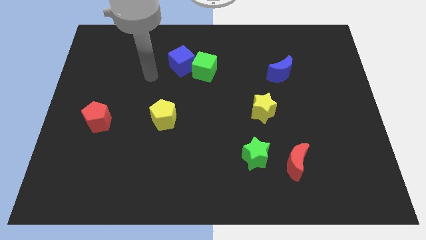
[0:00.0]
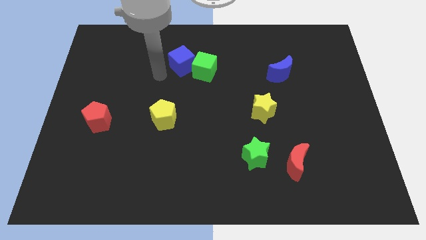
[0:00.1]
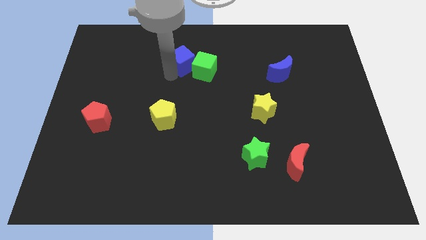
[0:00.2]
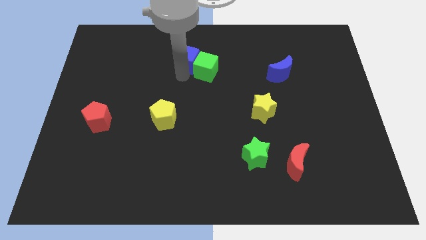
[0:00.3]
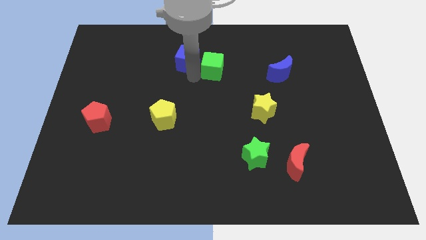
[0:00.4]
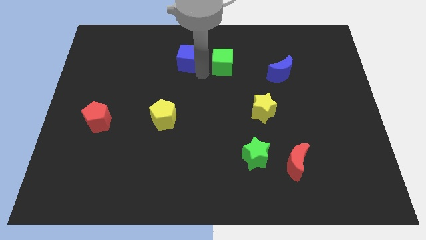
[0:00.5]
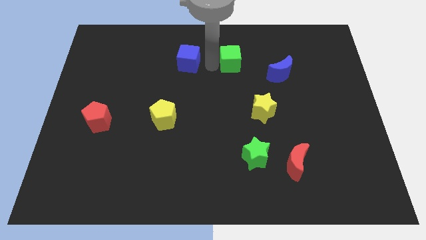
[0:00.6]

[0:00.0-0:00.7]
move the blue cube away from the green cube

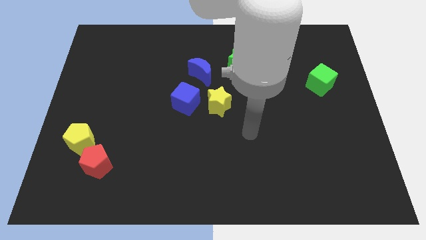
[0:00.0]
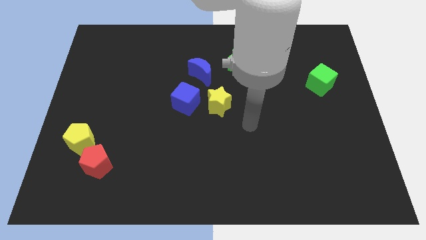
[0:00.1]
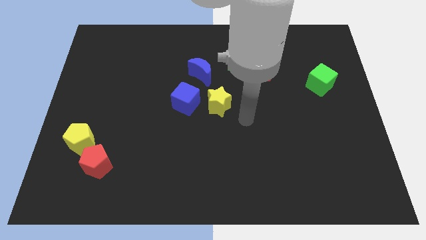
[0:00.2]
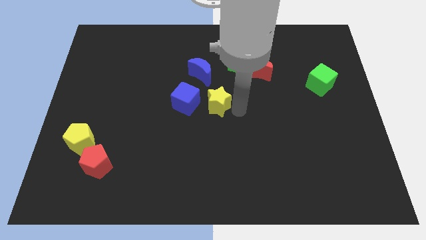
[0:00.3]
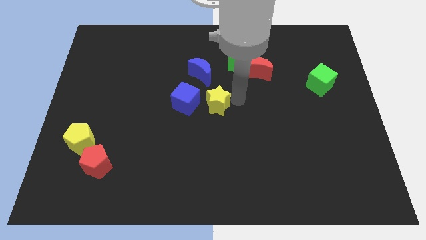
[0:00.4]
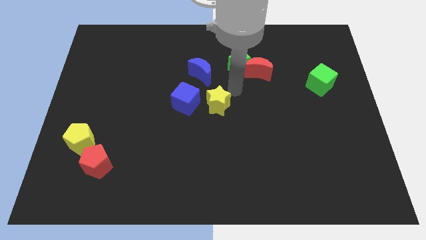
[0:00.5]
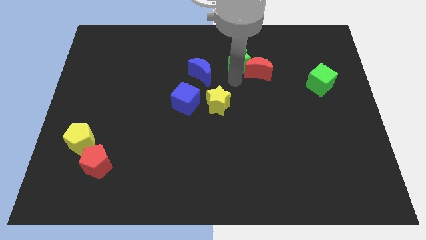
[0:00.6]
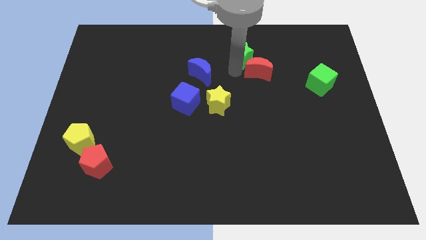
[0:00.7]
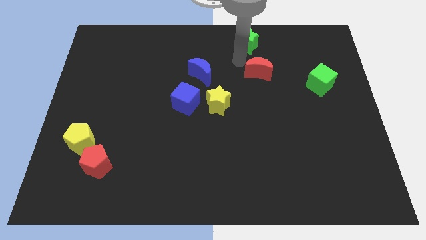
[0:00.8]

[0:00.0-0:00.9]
pull the red moon apart from the green star

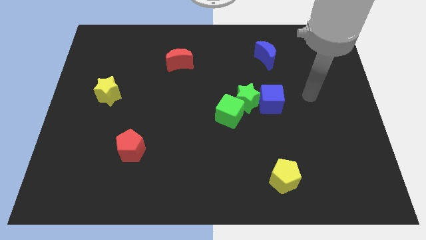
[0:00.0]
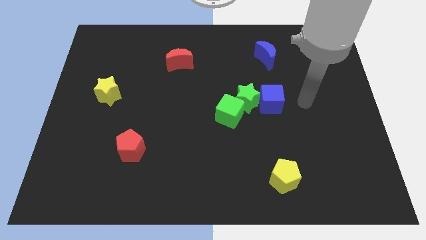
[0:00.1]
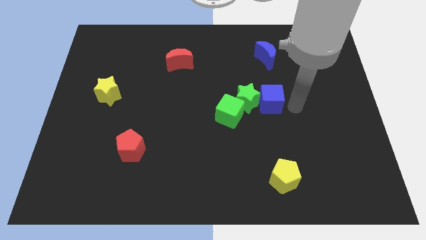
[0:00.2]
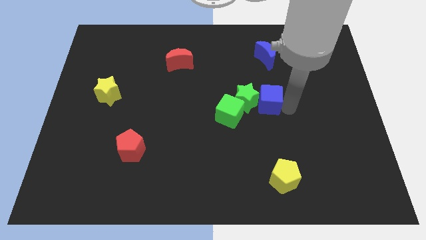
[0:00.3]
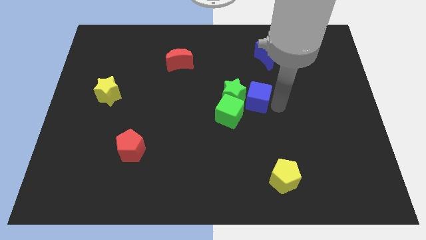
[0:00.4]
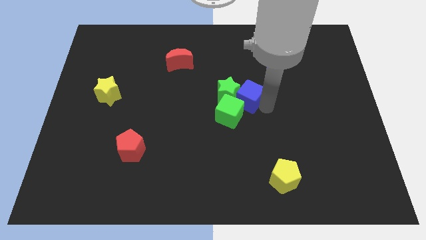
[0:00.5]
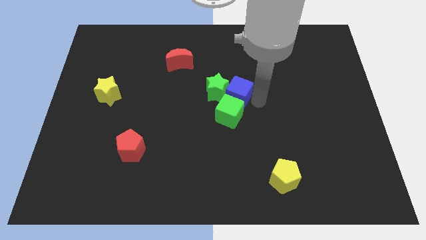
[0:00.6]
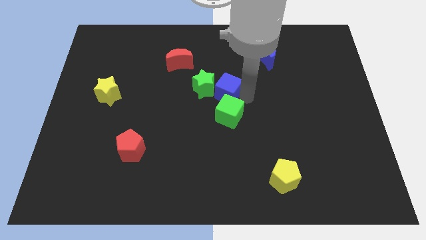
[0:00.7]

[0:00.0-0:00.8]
pull the green cube apart from the green star

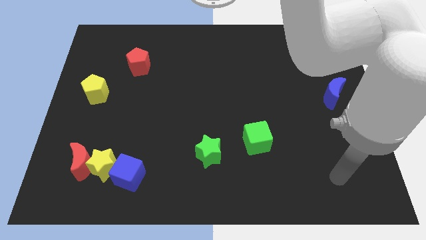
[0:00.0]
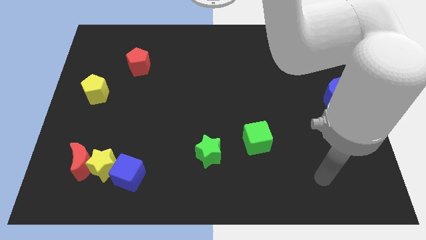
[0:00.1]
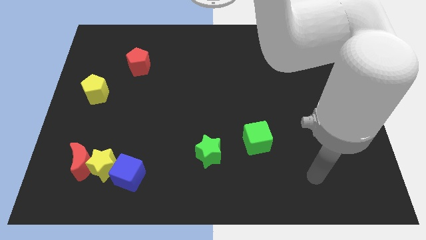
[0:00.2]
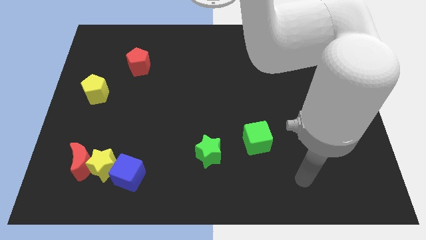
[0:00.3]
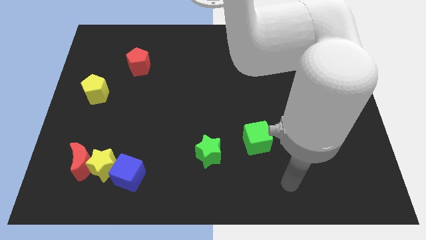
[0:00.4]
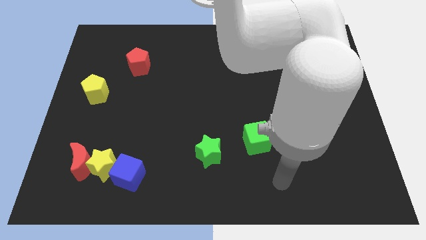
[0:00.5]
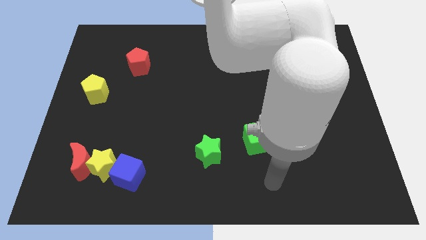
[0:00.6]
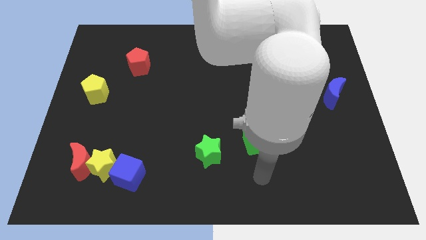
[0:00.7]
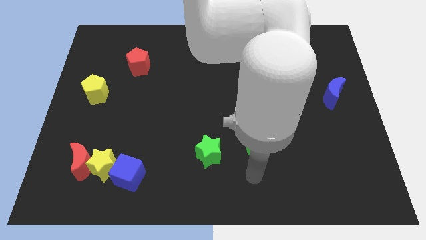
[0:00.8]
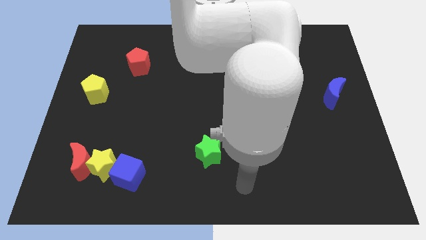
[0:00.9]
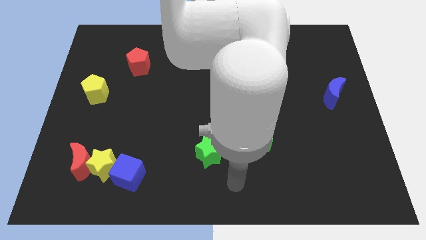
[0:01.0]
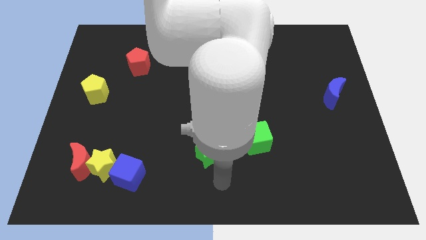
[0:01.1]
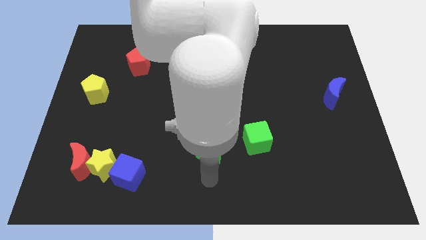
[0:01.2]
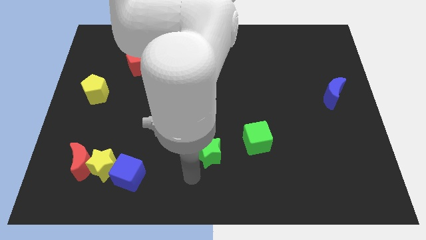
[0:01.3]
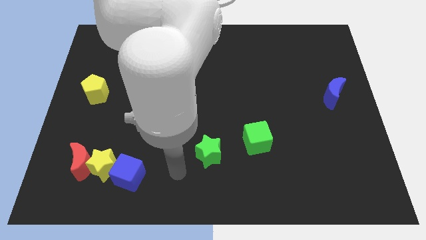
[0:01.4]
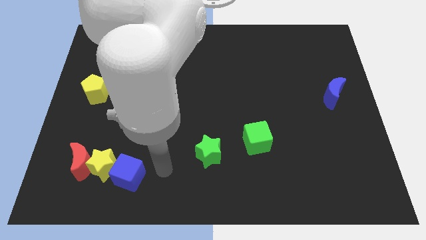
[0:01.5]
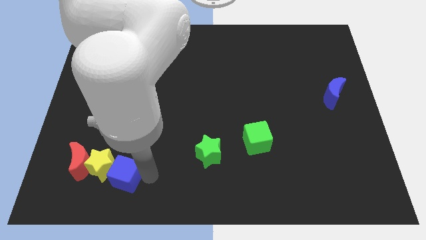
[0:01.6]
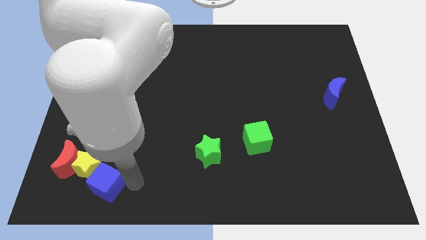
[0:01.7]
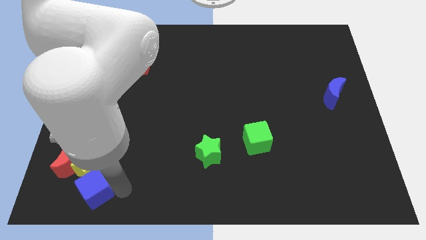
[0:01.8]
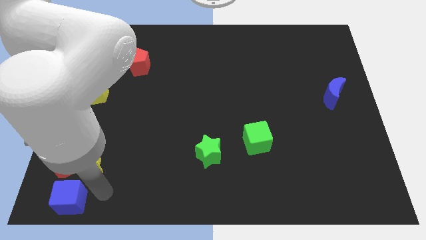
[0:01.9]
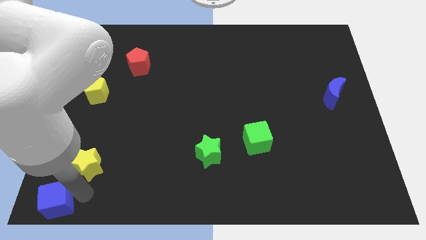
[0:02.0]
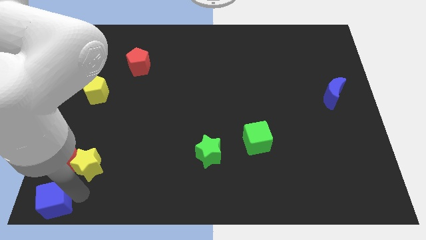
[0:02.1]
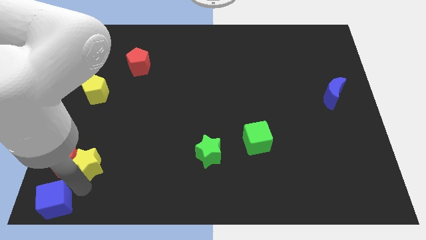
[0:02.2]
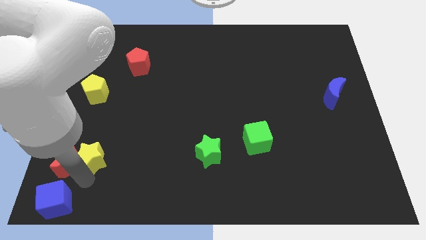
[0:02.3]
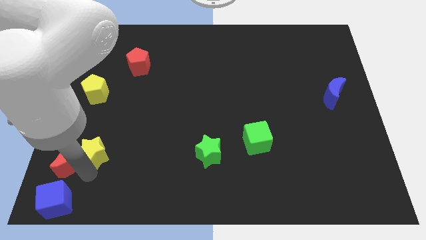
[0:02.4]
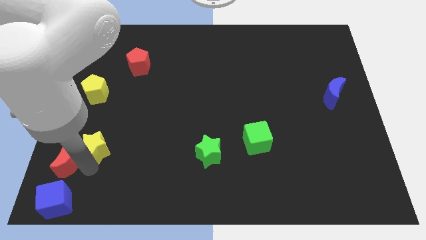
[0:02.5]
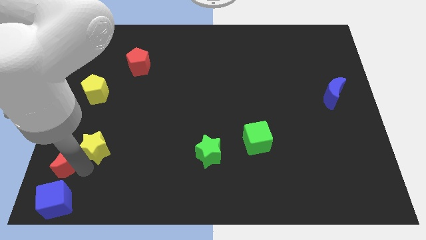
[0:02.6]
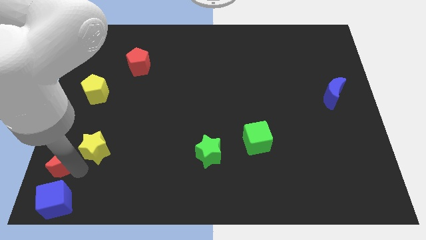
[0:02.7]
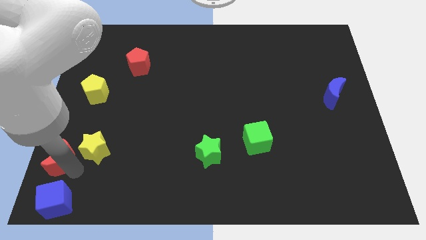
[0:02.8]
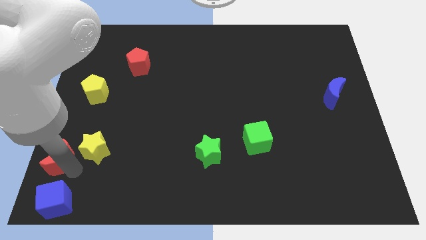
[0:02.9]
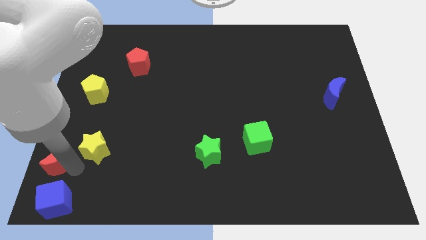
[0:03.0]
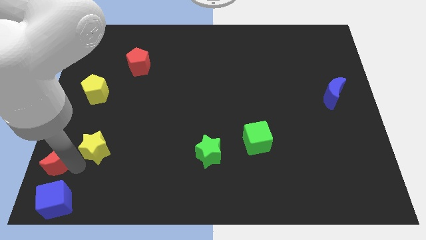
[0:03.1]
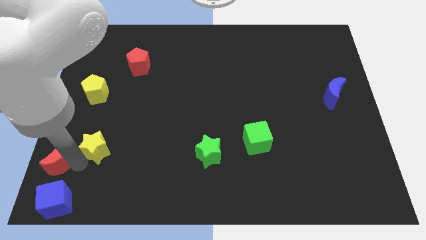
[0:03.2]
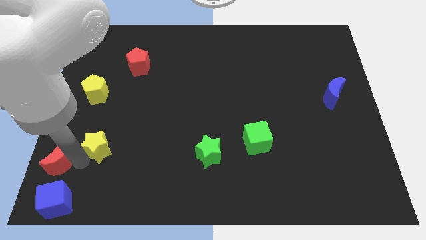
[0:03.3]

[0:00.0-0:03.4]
separate the yellow star from the red moon and blue cube

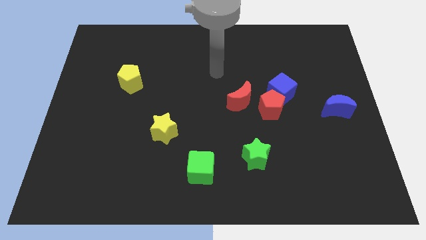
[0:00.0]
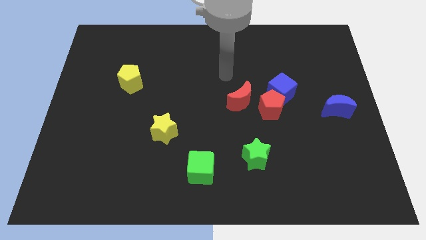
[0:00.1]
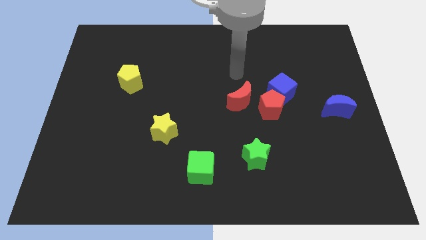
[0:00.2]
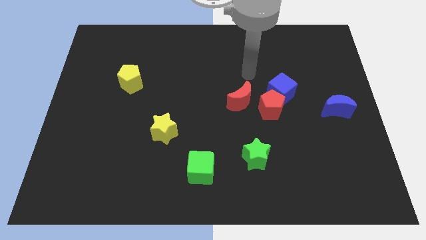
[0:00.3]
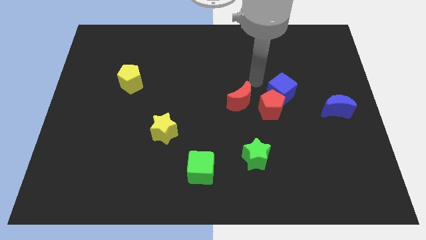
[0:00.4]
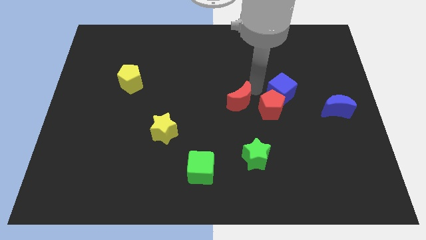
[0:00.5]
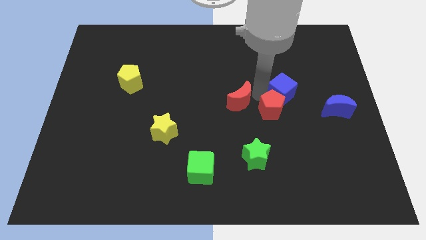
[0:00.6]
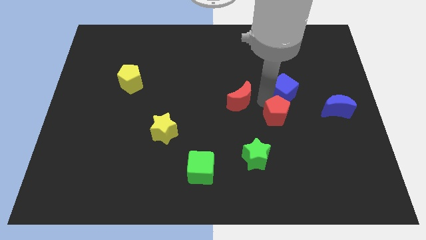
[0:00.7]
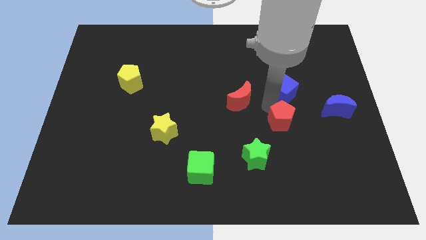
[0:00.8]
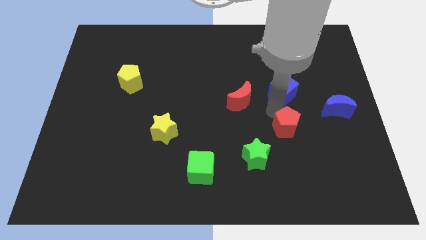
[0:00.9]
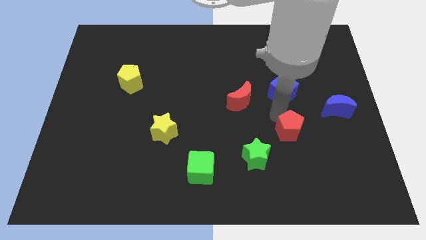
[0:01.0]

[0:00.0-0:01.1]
separate the red pentagon from the blue cube and red moon

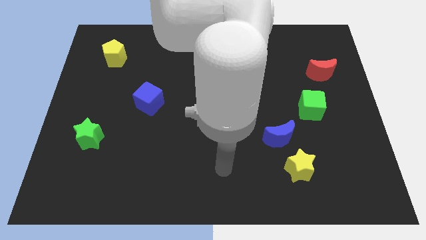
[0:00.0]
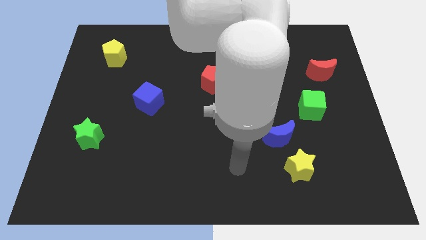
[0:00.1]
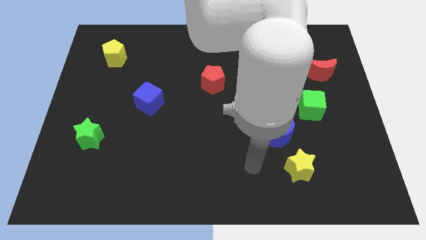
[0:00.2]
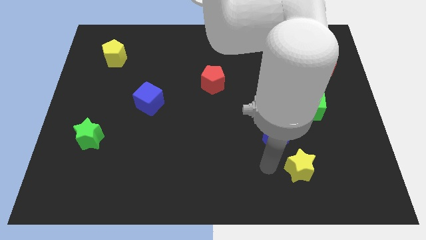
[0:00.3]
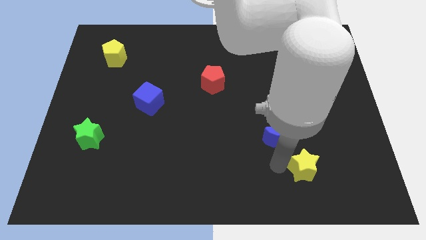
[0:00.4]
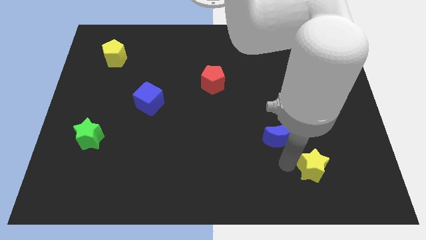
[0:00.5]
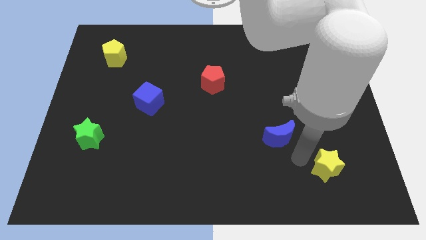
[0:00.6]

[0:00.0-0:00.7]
pull the blue moon apart from the yellow star

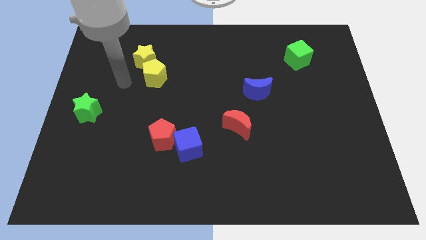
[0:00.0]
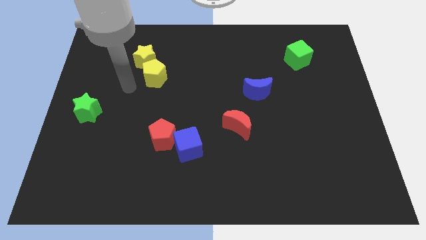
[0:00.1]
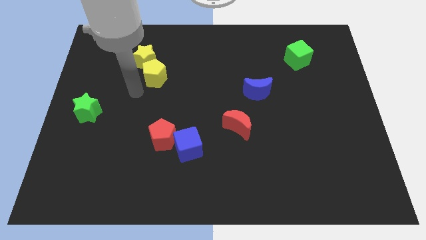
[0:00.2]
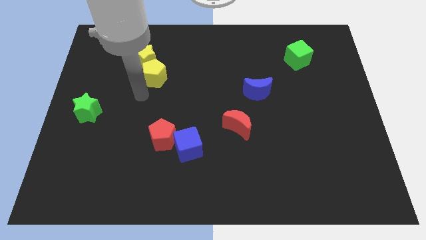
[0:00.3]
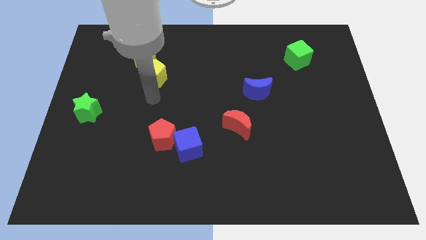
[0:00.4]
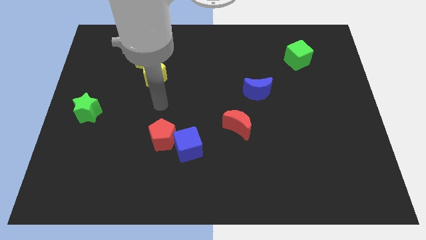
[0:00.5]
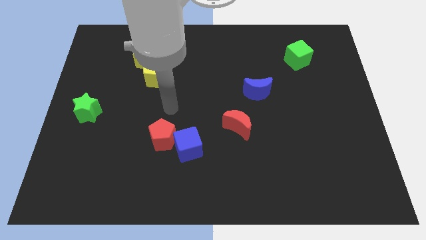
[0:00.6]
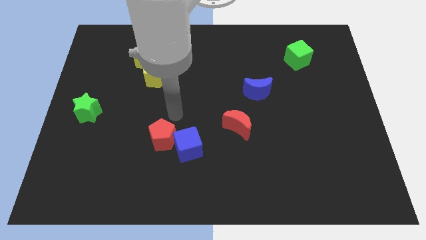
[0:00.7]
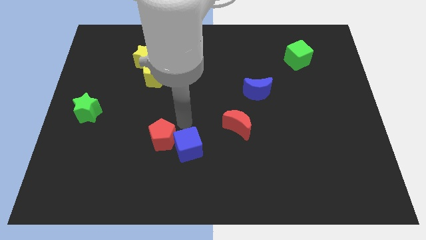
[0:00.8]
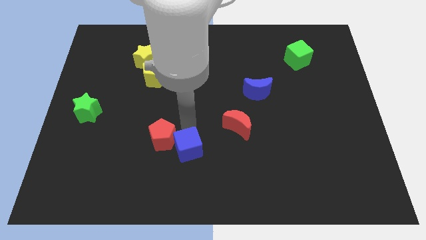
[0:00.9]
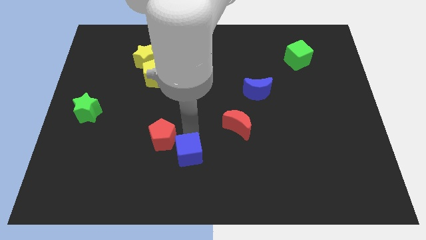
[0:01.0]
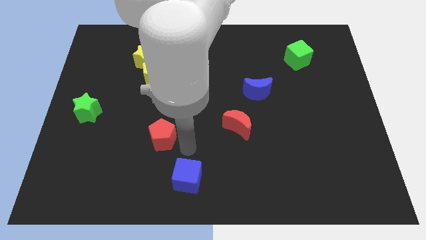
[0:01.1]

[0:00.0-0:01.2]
move the red pentagon away from the blue cube

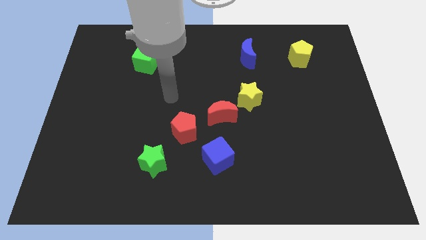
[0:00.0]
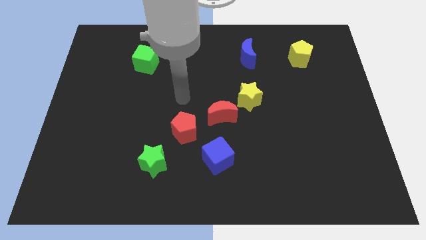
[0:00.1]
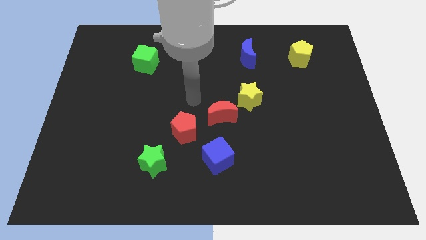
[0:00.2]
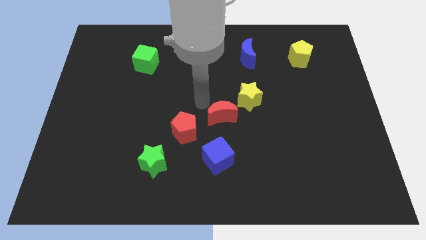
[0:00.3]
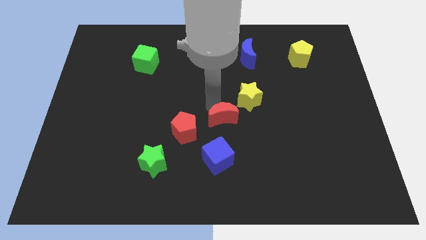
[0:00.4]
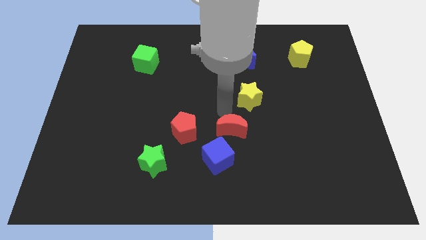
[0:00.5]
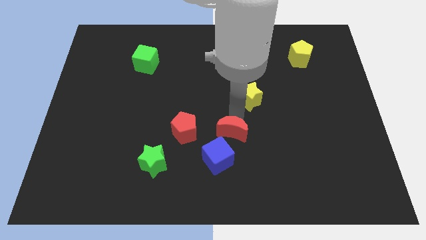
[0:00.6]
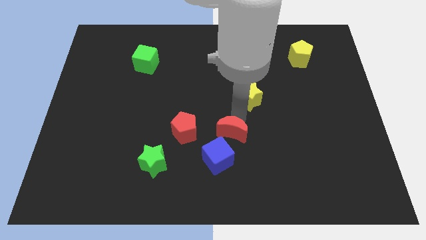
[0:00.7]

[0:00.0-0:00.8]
pull the yellow star apart from the red moon
